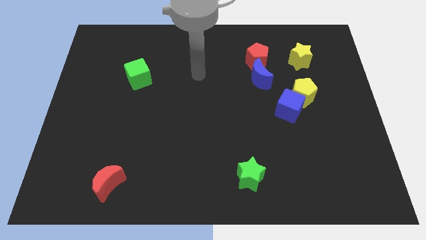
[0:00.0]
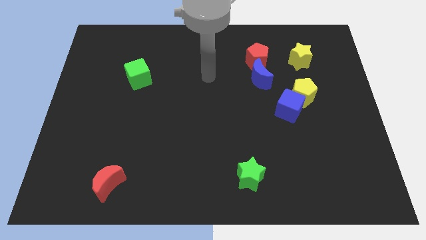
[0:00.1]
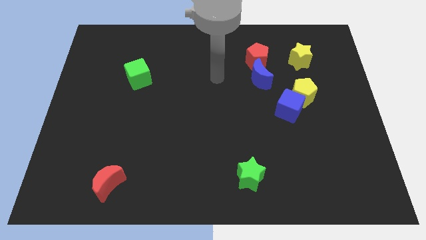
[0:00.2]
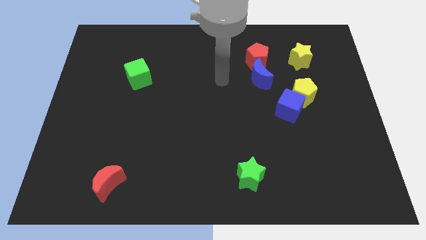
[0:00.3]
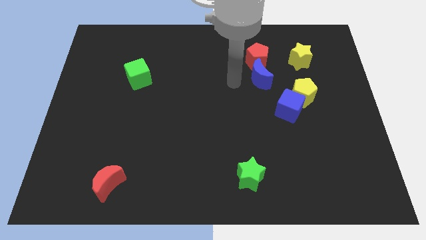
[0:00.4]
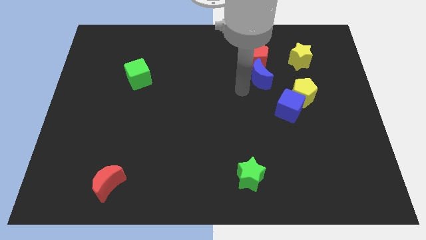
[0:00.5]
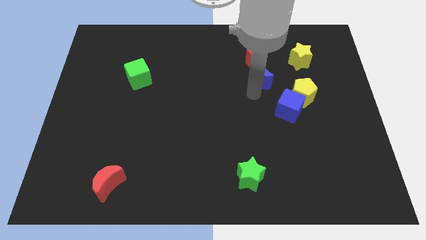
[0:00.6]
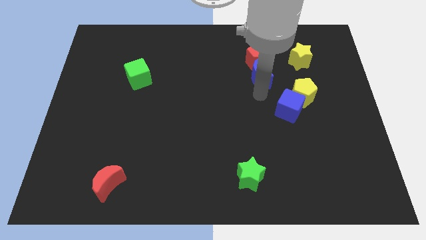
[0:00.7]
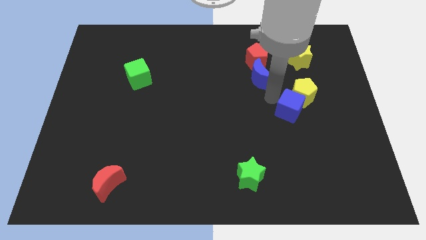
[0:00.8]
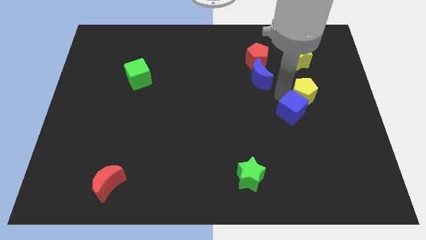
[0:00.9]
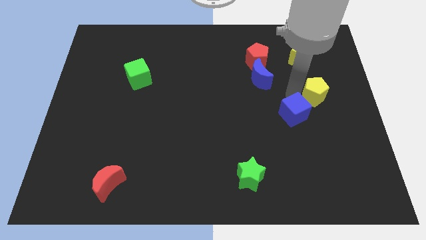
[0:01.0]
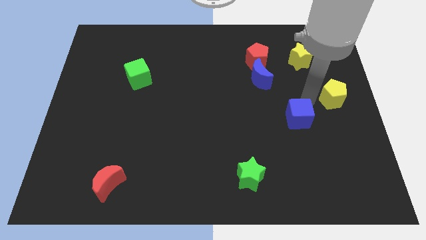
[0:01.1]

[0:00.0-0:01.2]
pull the blue cube apart from the yellow pentagon

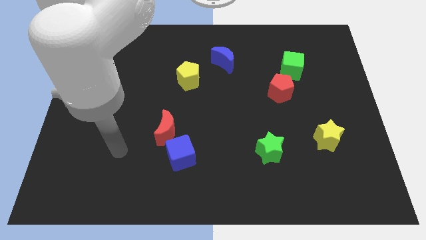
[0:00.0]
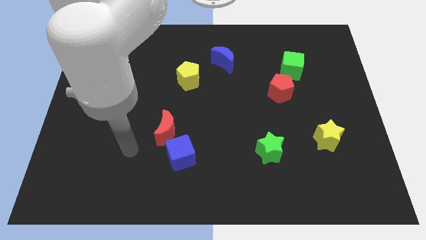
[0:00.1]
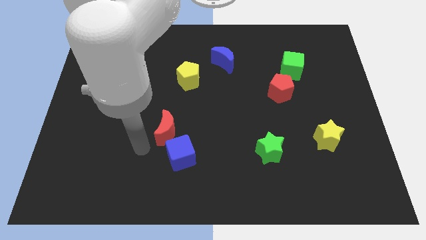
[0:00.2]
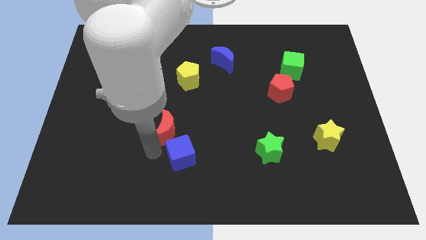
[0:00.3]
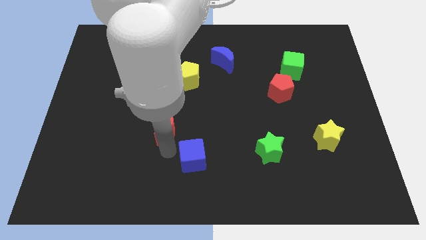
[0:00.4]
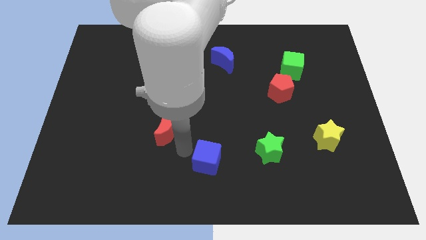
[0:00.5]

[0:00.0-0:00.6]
move the red moon away from the blue cube

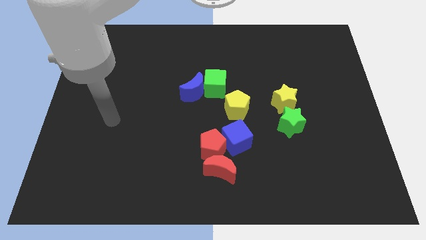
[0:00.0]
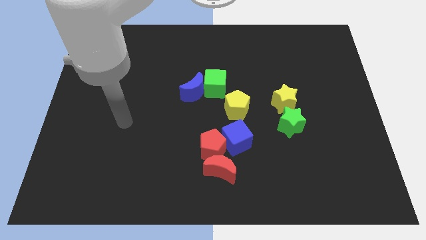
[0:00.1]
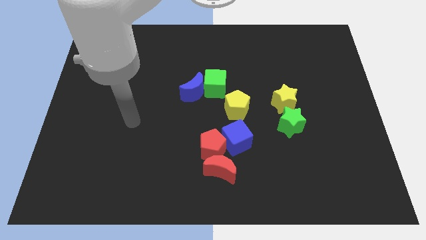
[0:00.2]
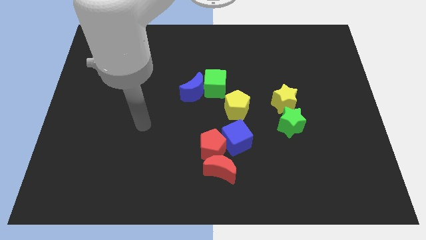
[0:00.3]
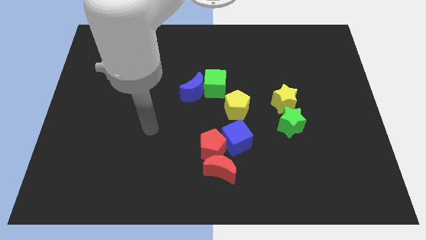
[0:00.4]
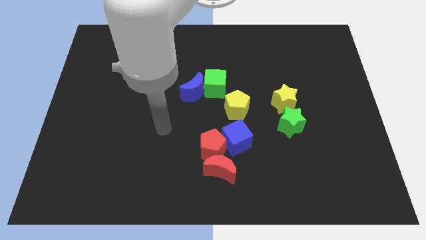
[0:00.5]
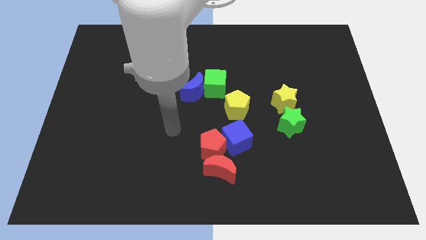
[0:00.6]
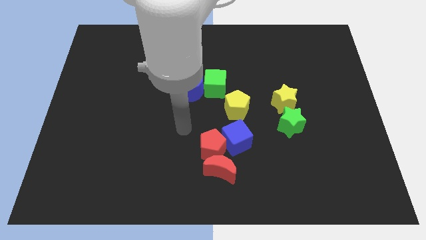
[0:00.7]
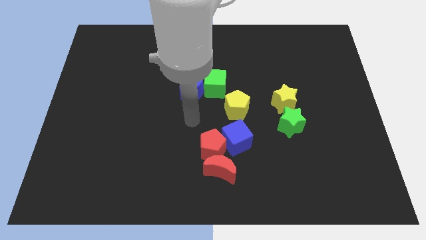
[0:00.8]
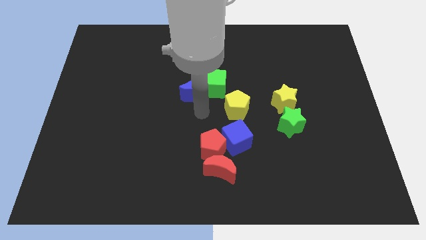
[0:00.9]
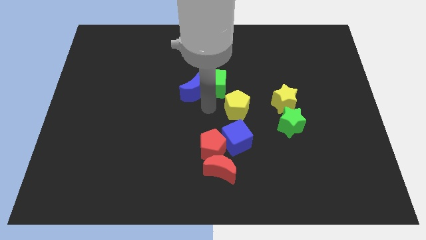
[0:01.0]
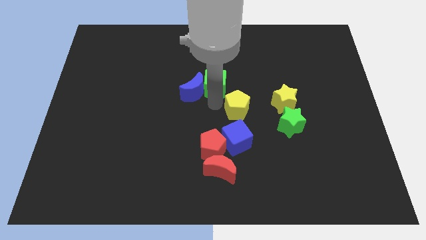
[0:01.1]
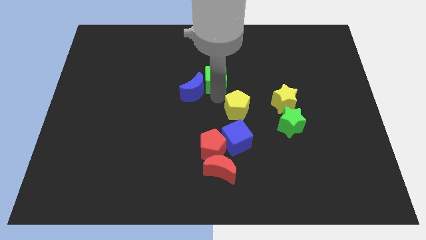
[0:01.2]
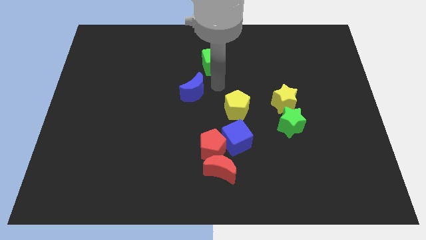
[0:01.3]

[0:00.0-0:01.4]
separate the blue moon from the green cube

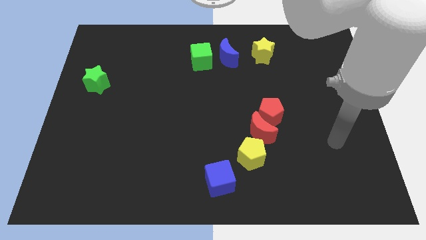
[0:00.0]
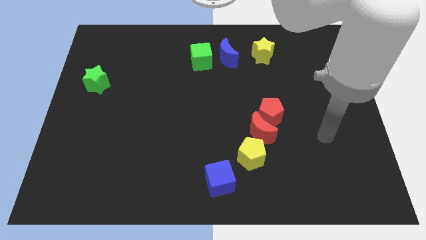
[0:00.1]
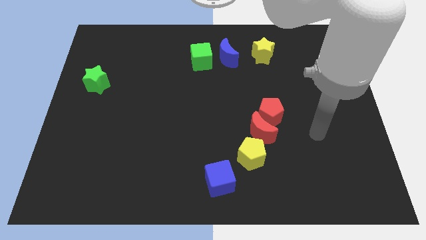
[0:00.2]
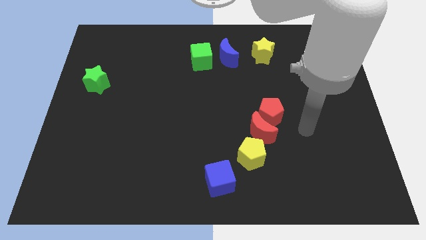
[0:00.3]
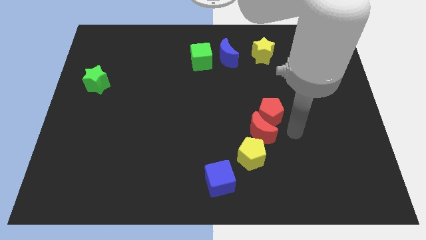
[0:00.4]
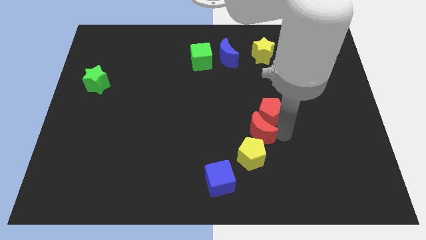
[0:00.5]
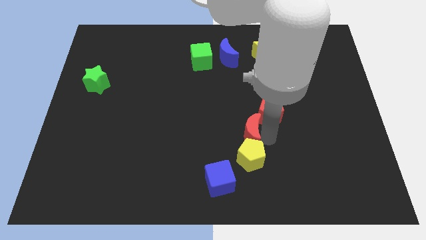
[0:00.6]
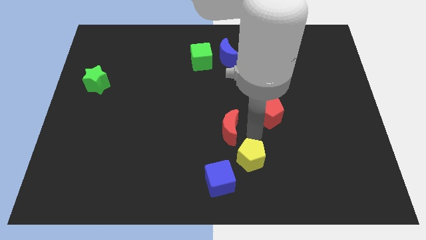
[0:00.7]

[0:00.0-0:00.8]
separate the red pentagon from the red moon

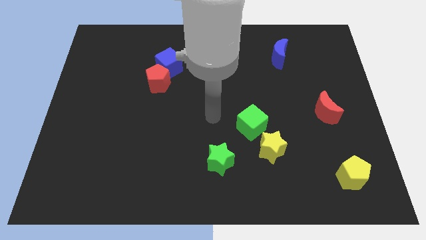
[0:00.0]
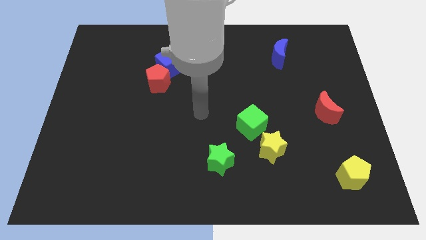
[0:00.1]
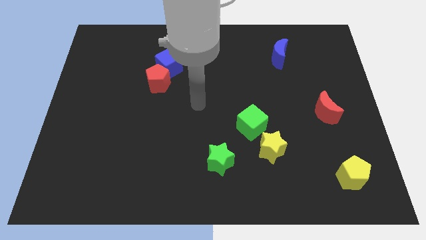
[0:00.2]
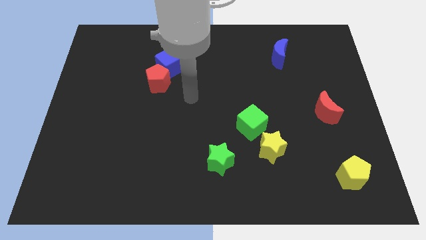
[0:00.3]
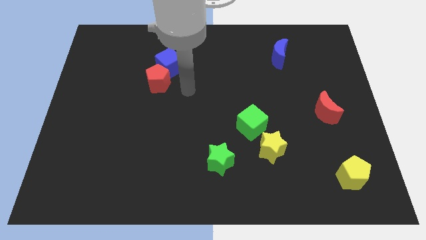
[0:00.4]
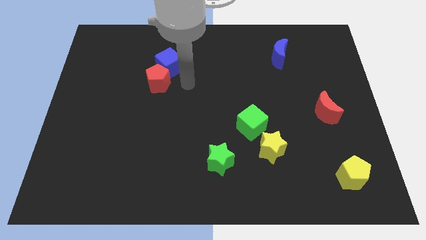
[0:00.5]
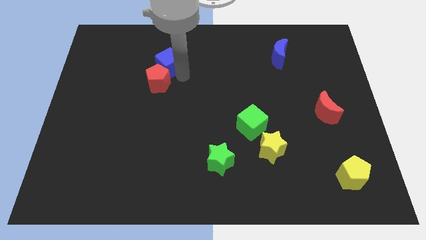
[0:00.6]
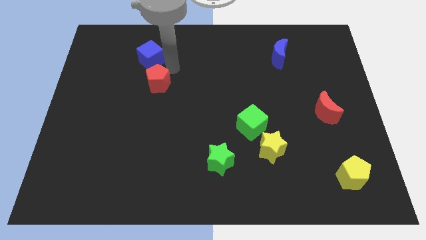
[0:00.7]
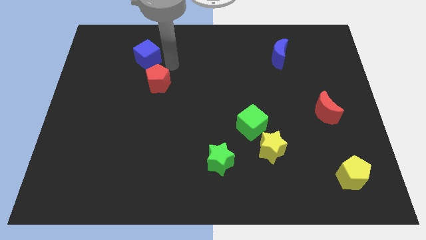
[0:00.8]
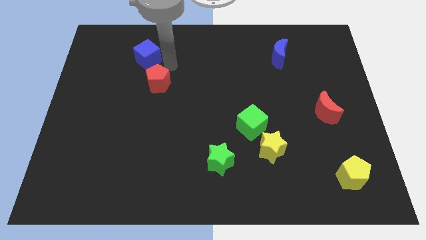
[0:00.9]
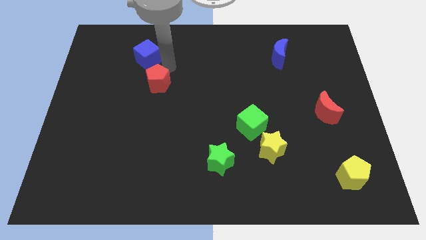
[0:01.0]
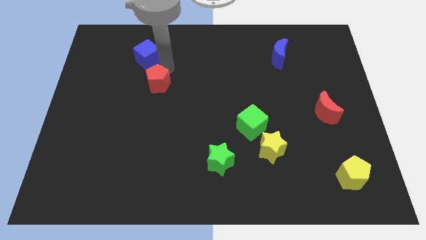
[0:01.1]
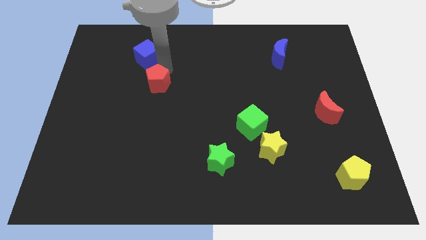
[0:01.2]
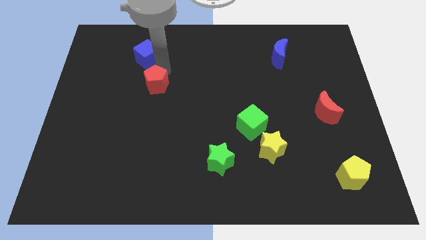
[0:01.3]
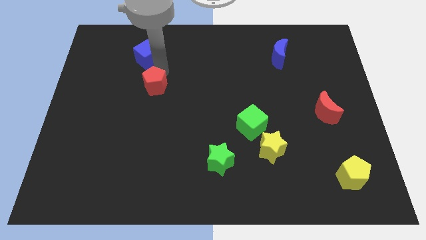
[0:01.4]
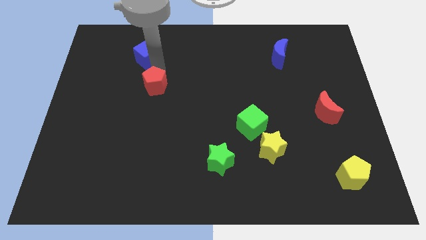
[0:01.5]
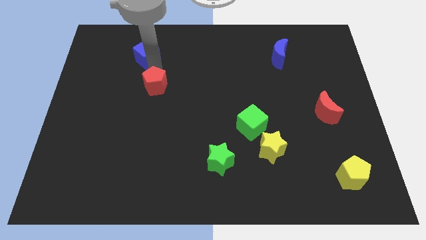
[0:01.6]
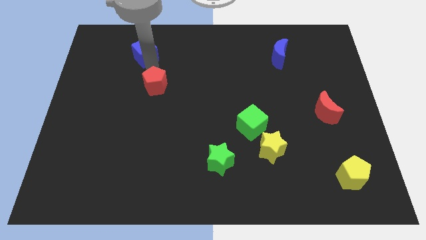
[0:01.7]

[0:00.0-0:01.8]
separate the red pentagon from the blue cube

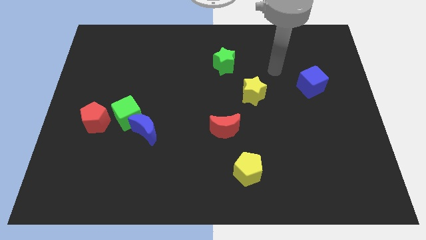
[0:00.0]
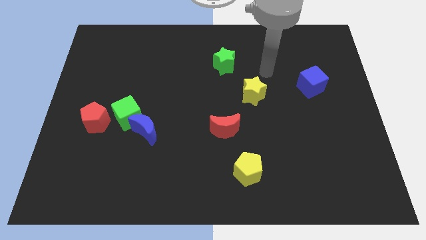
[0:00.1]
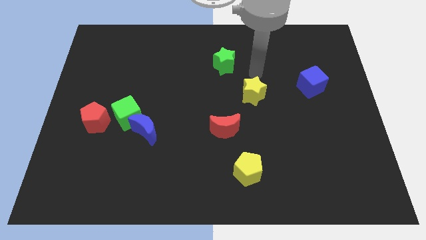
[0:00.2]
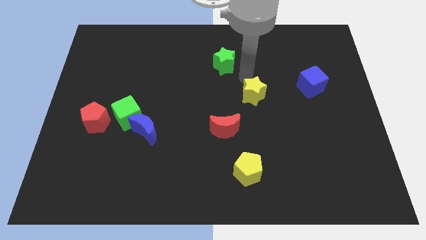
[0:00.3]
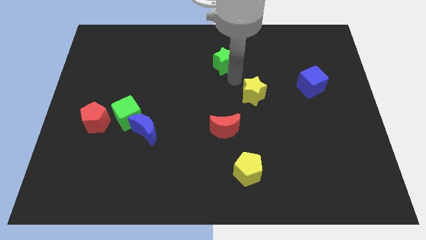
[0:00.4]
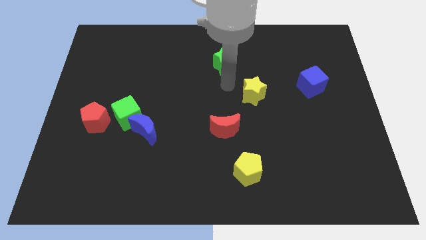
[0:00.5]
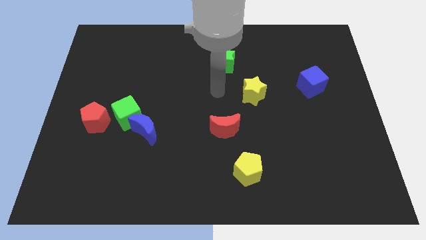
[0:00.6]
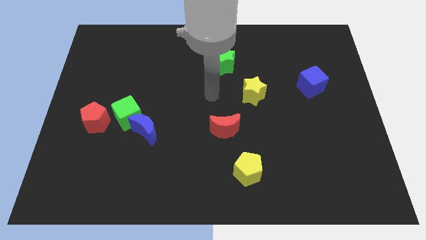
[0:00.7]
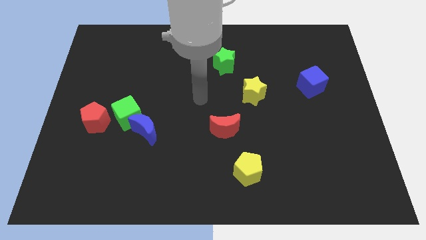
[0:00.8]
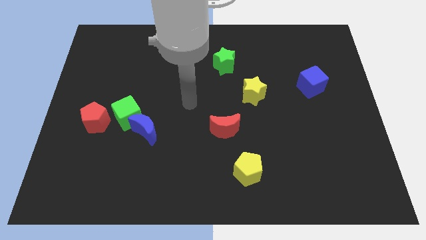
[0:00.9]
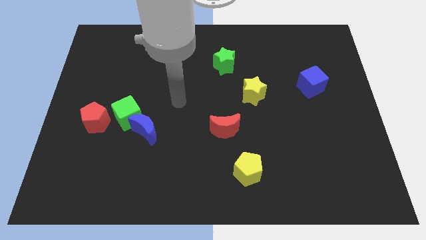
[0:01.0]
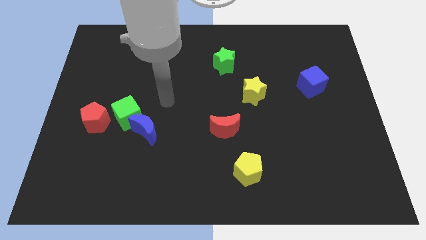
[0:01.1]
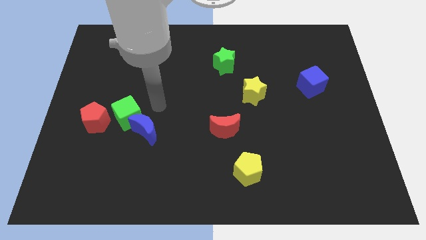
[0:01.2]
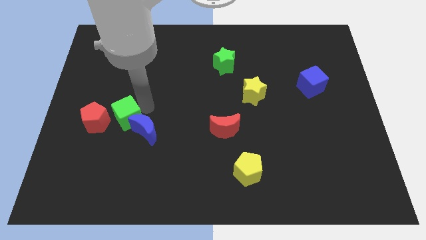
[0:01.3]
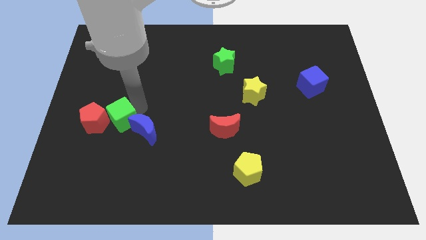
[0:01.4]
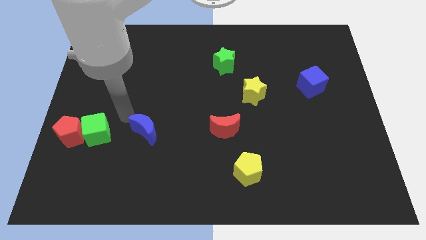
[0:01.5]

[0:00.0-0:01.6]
move the blue moon away from the green cube

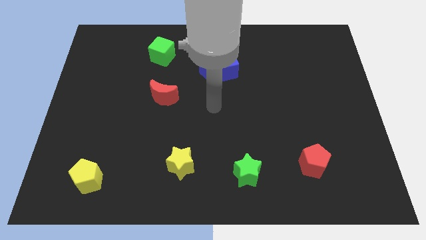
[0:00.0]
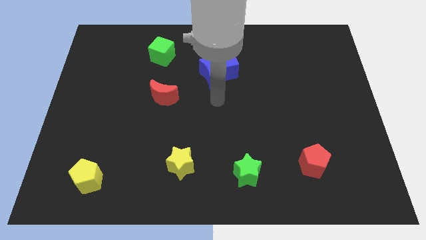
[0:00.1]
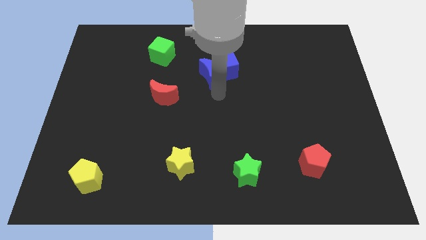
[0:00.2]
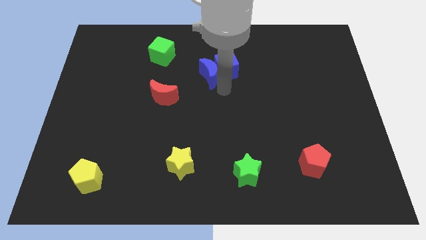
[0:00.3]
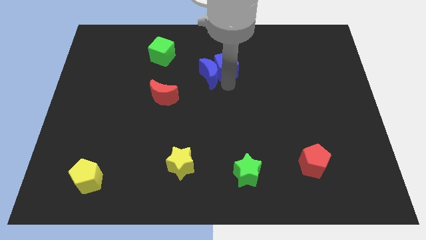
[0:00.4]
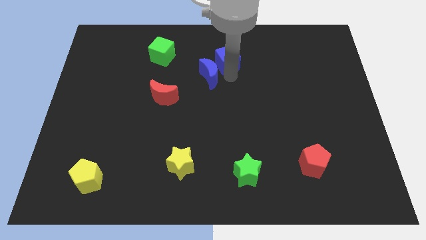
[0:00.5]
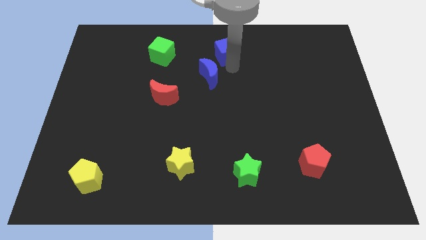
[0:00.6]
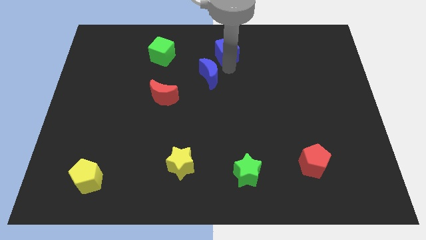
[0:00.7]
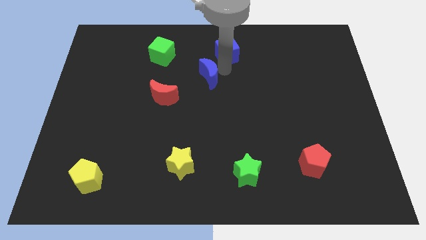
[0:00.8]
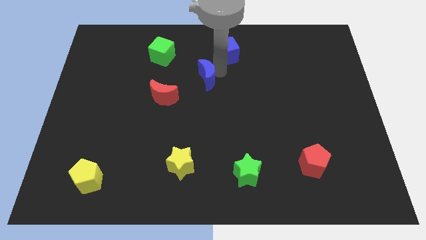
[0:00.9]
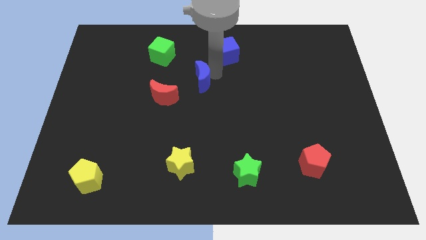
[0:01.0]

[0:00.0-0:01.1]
move the blue moon away from the blue cube

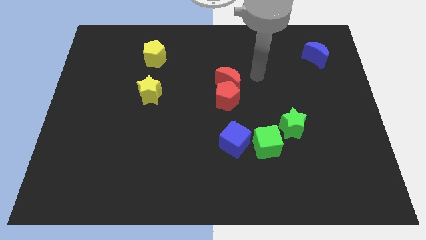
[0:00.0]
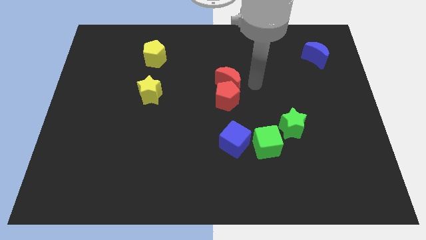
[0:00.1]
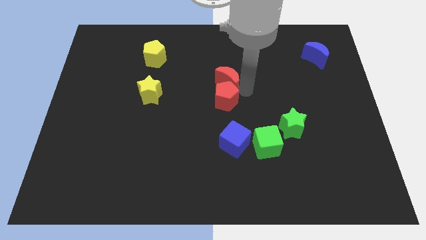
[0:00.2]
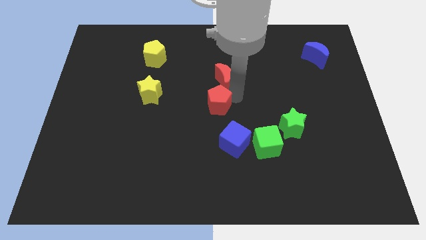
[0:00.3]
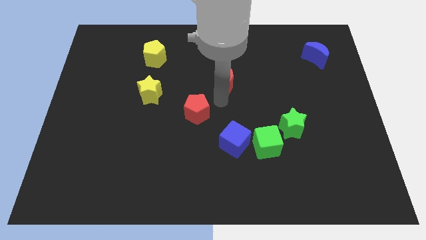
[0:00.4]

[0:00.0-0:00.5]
separate the red moon from the red pentagon

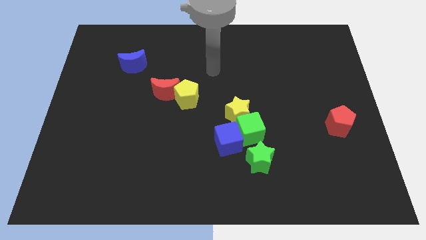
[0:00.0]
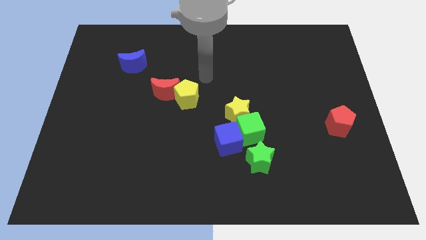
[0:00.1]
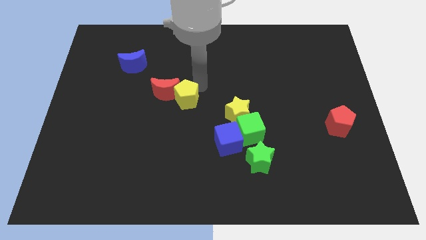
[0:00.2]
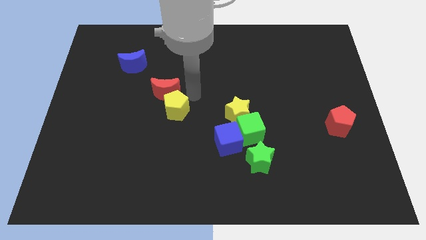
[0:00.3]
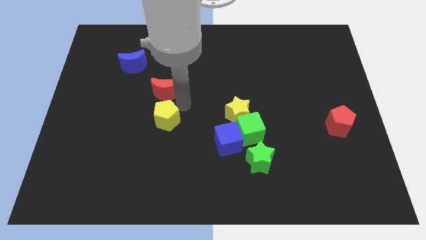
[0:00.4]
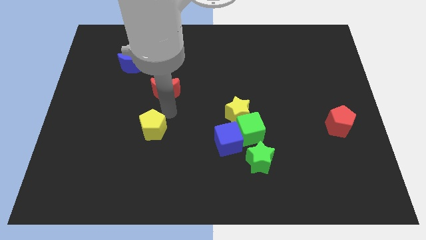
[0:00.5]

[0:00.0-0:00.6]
pull the red moon apart from the yellow pentagon
